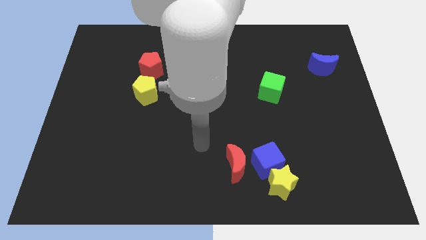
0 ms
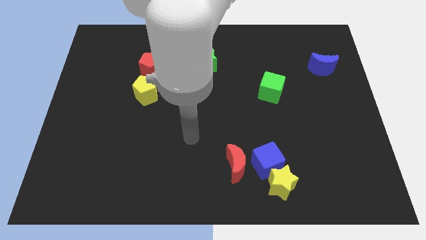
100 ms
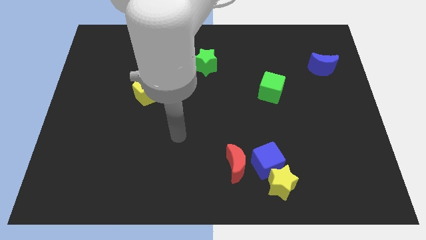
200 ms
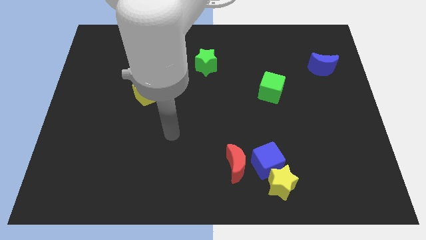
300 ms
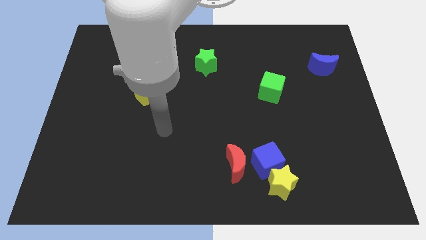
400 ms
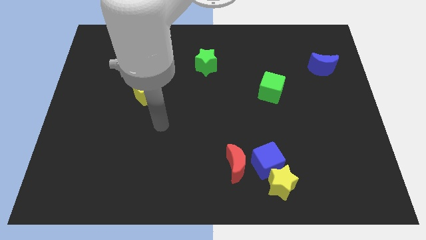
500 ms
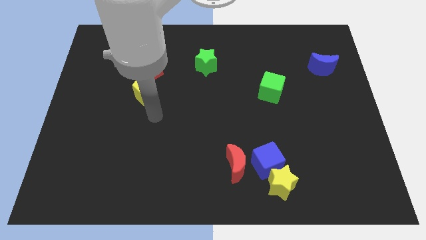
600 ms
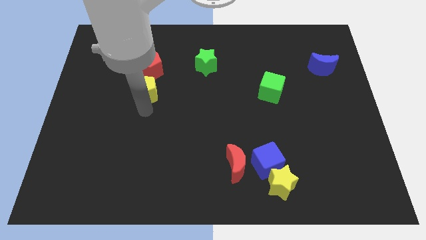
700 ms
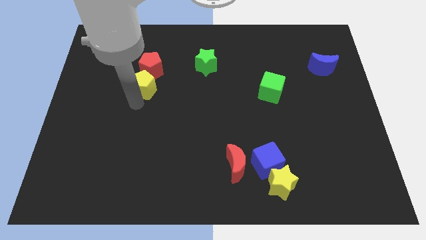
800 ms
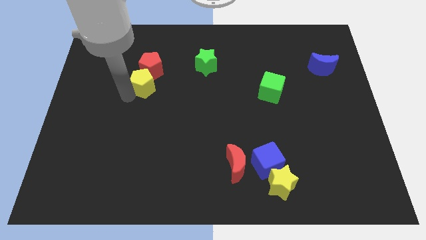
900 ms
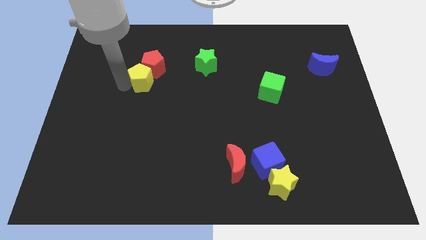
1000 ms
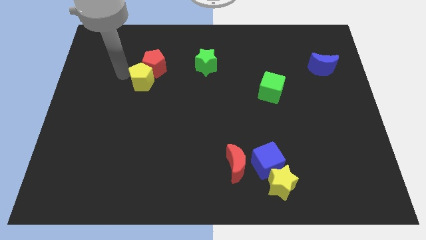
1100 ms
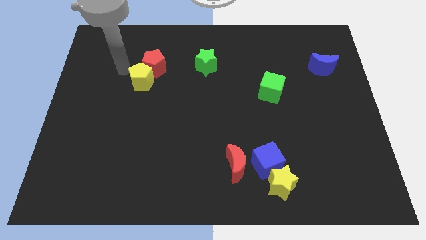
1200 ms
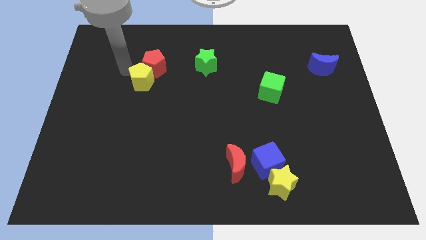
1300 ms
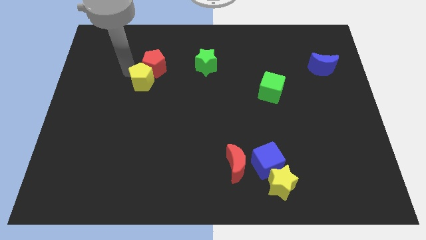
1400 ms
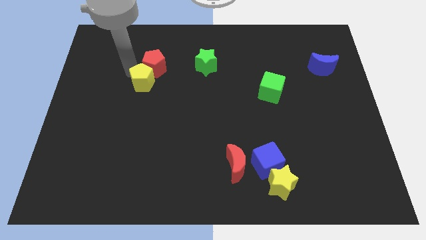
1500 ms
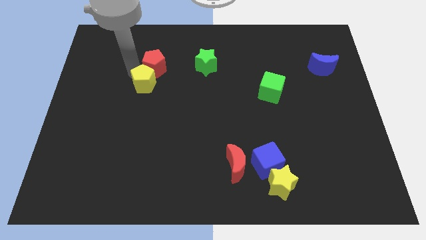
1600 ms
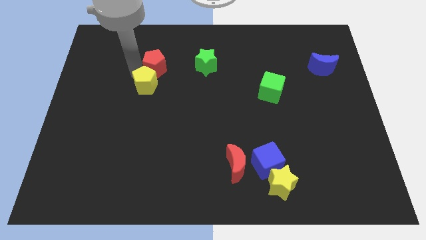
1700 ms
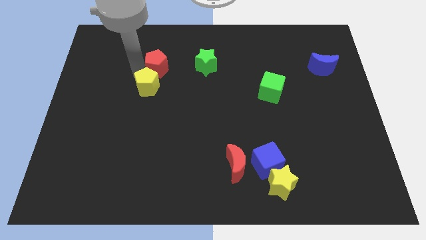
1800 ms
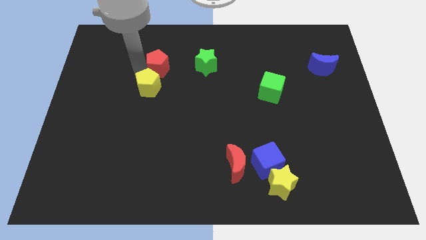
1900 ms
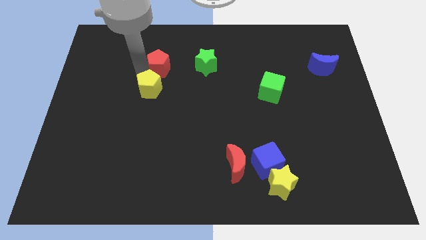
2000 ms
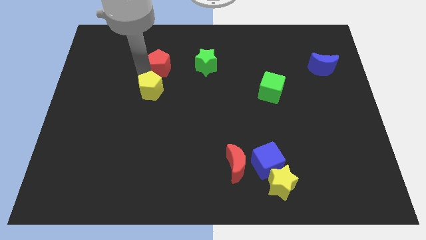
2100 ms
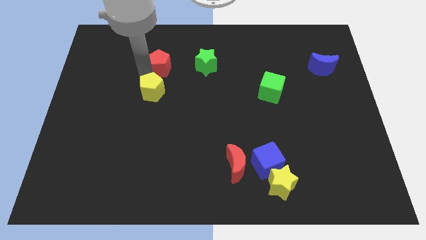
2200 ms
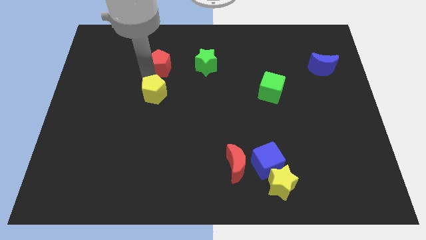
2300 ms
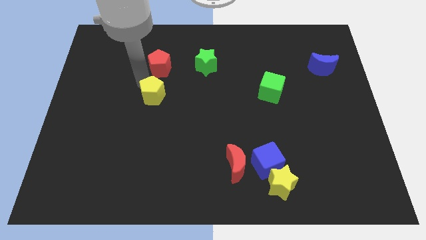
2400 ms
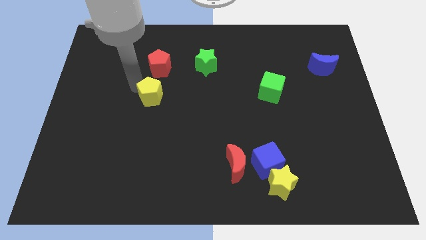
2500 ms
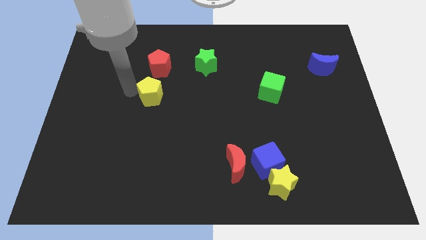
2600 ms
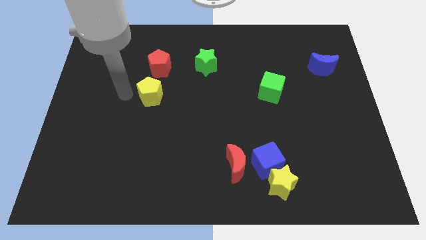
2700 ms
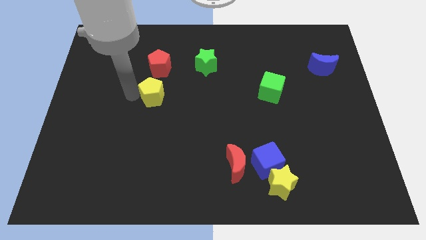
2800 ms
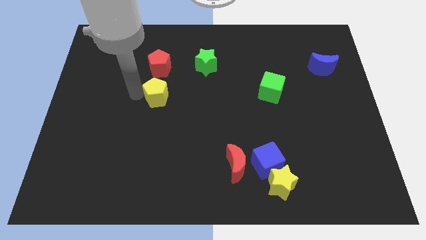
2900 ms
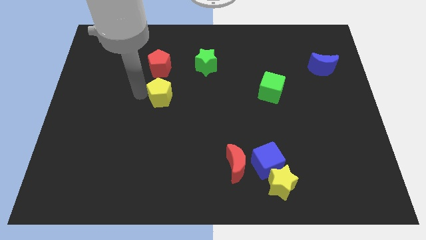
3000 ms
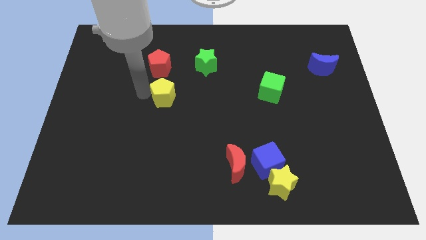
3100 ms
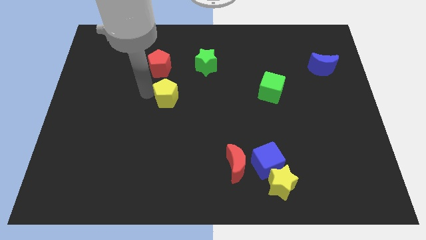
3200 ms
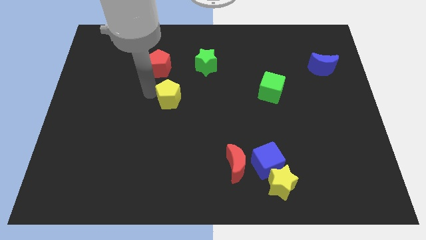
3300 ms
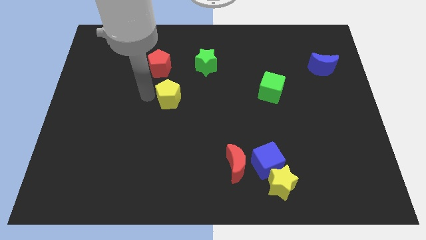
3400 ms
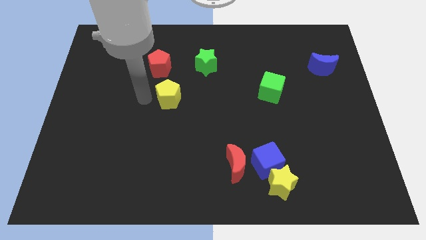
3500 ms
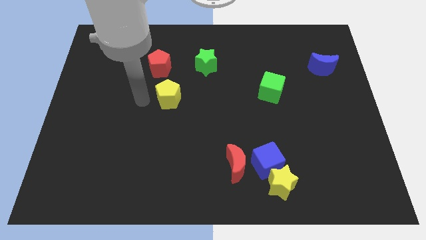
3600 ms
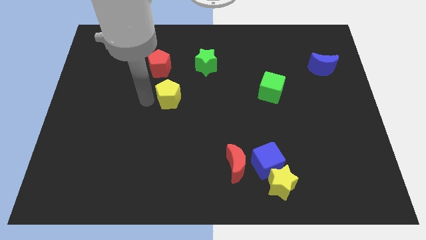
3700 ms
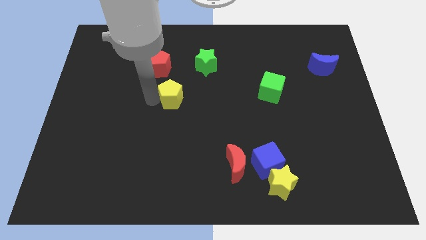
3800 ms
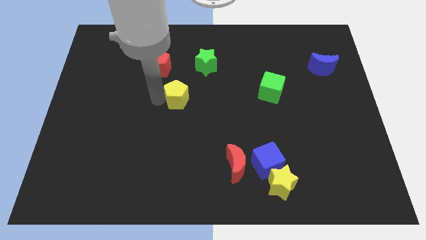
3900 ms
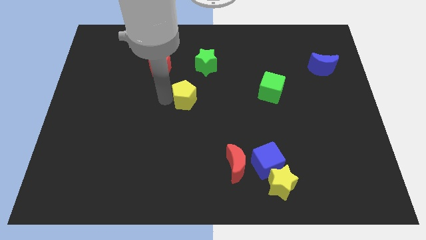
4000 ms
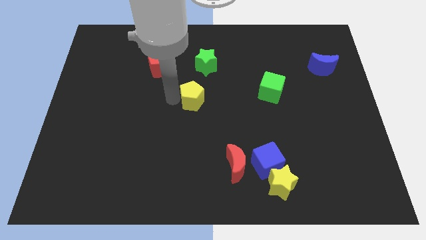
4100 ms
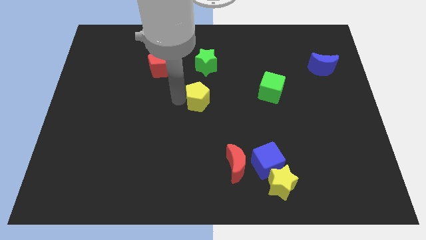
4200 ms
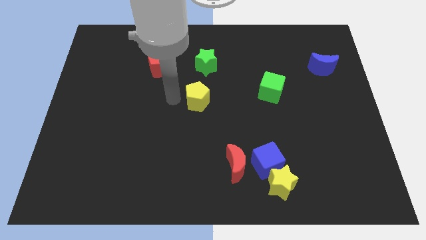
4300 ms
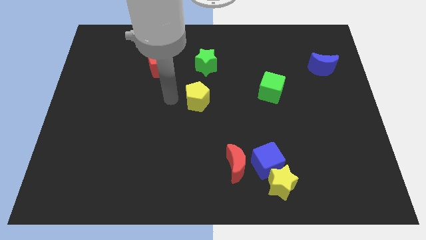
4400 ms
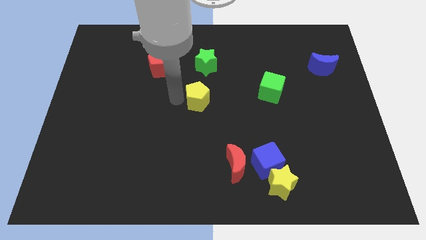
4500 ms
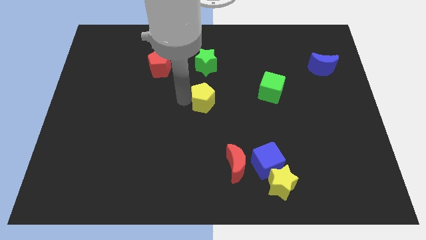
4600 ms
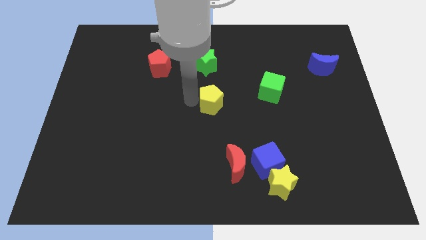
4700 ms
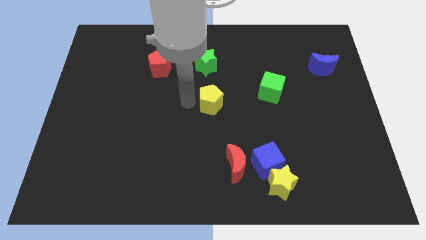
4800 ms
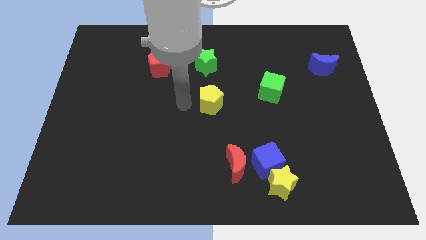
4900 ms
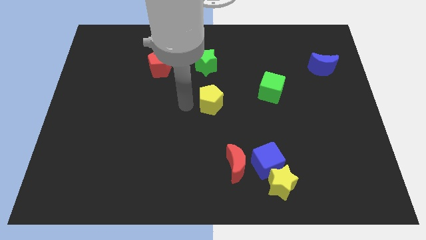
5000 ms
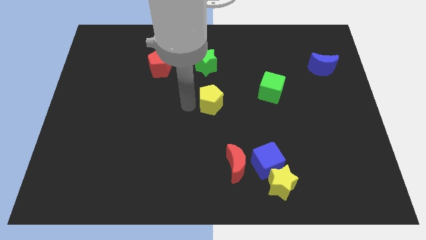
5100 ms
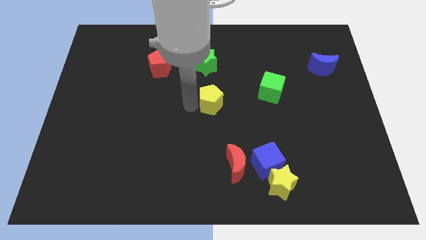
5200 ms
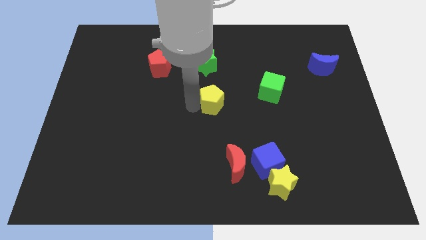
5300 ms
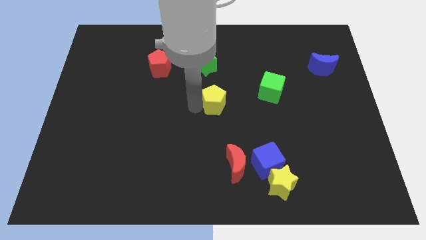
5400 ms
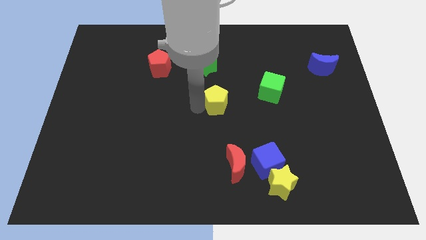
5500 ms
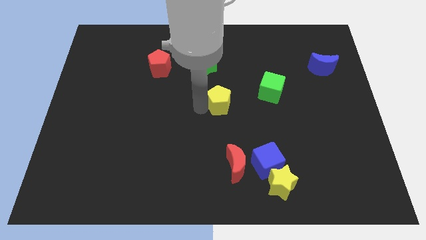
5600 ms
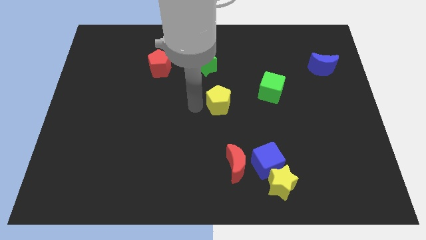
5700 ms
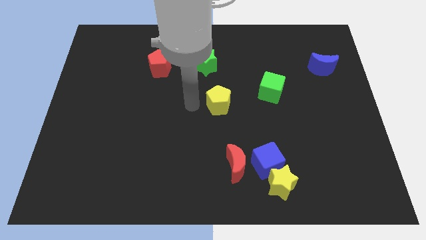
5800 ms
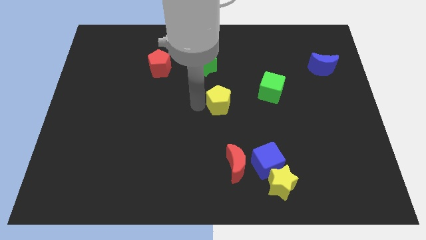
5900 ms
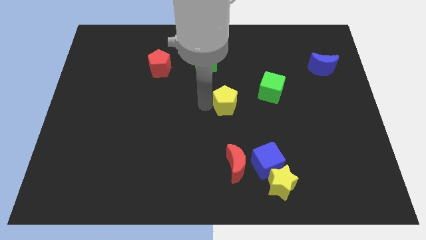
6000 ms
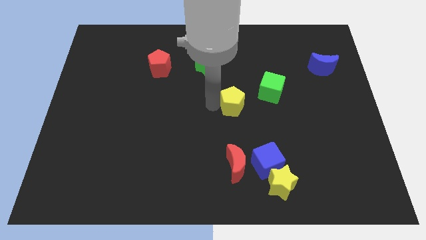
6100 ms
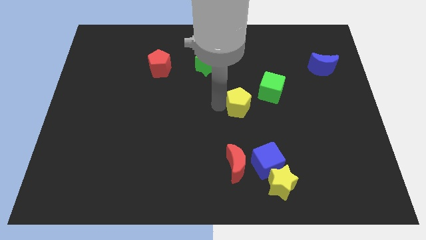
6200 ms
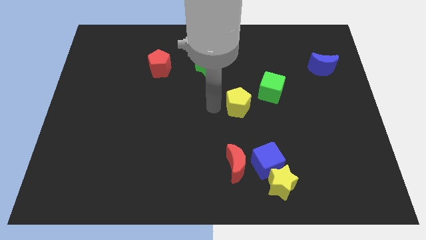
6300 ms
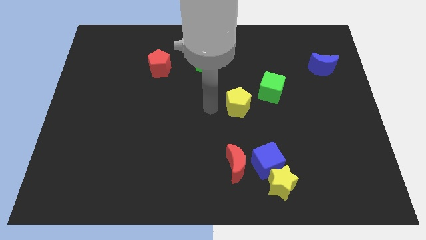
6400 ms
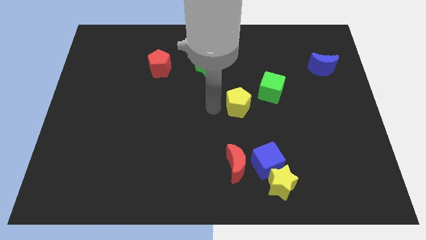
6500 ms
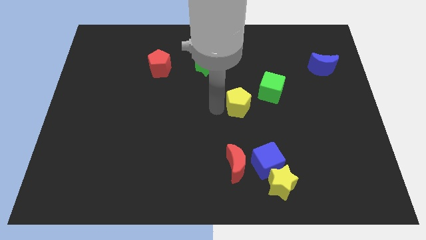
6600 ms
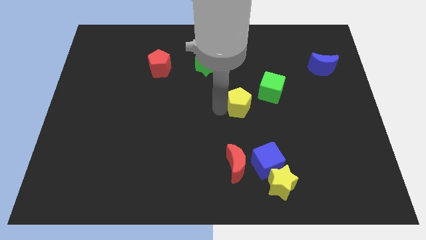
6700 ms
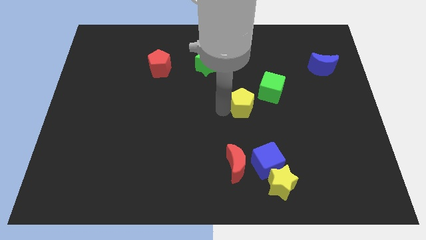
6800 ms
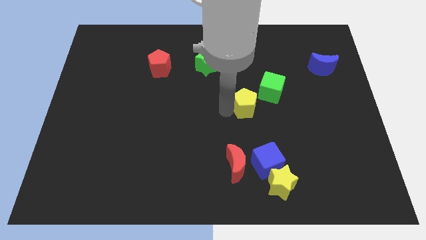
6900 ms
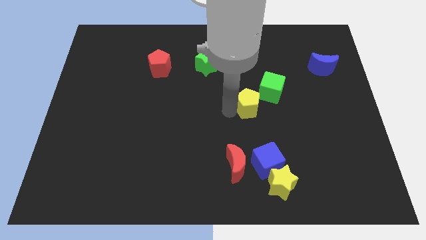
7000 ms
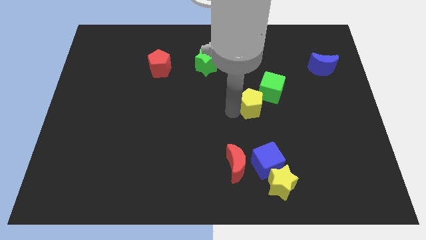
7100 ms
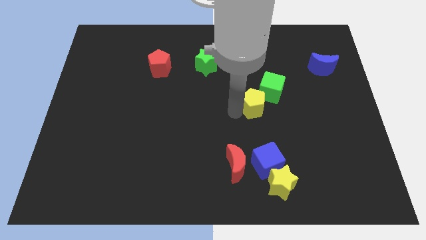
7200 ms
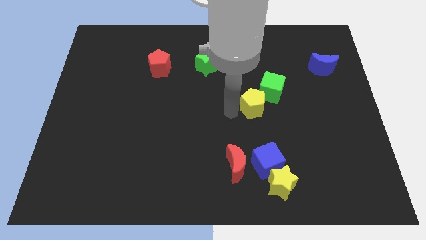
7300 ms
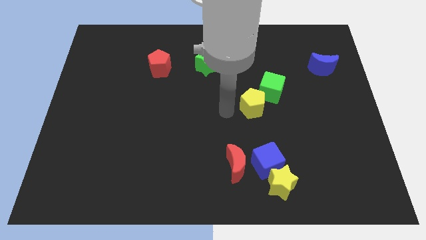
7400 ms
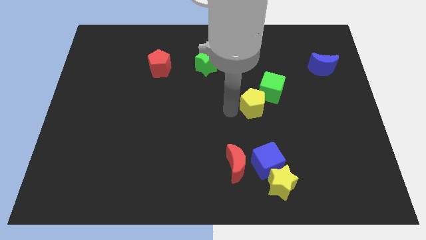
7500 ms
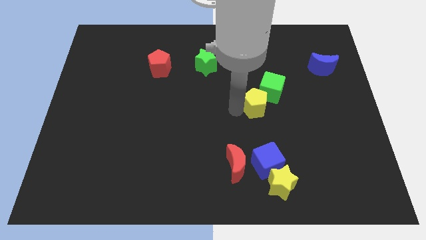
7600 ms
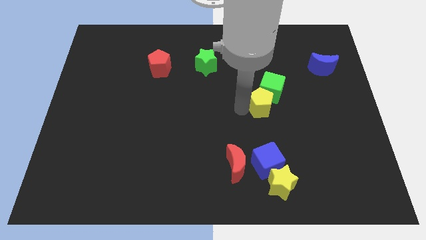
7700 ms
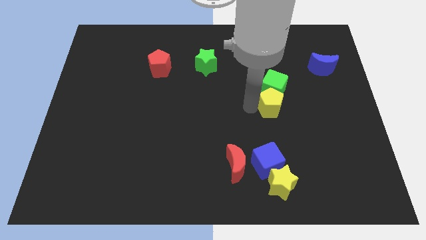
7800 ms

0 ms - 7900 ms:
put the yellow pentagon diagonally down and to the right of the green cube

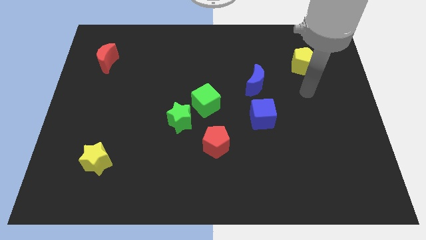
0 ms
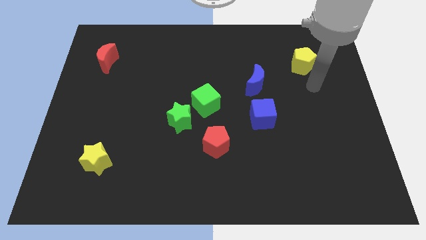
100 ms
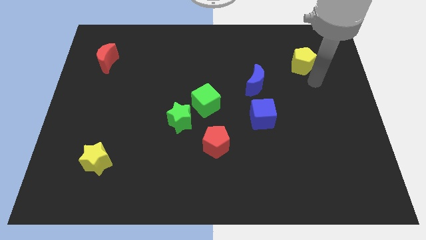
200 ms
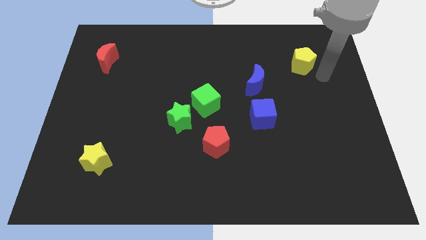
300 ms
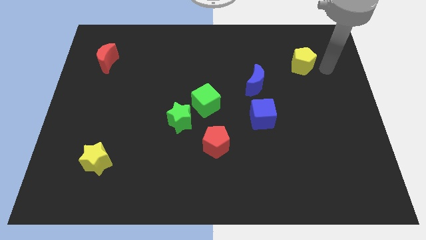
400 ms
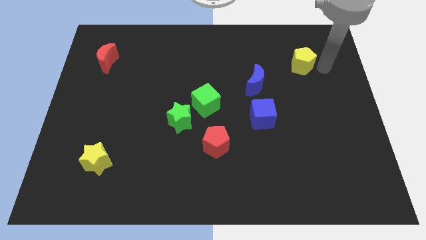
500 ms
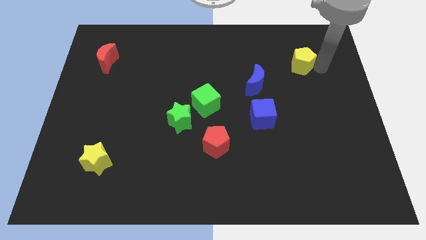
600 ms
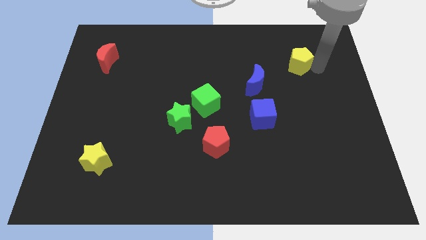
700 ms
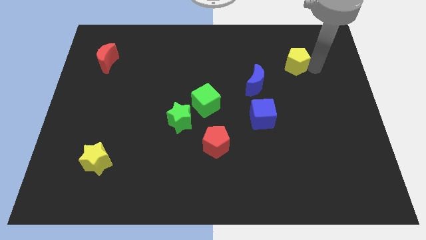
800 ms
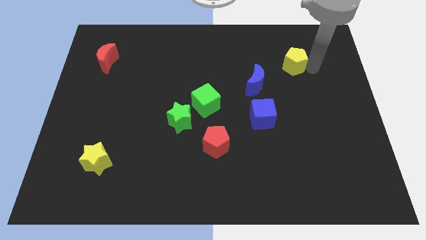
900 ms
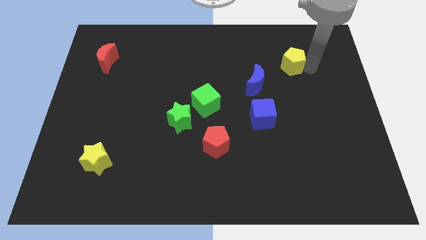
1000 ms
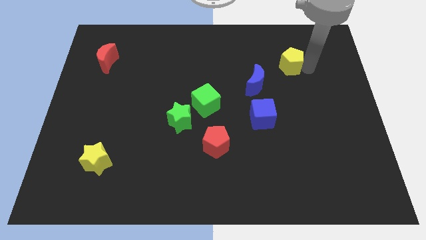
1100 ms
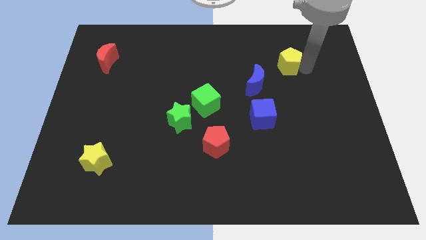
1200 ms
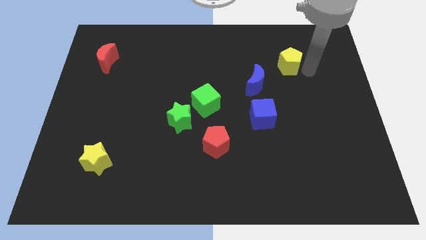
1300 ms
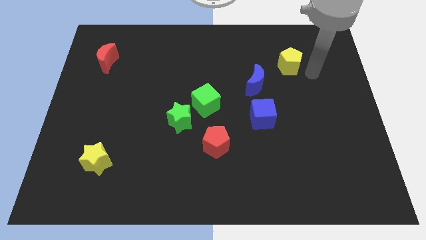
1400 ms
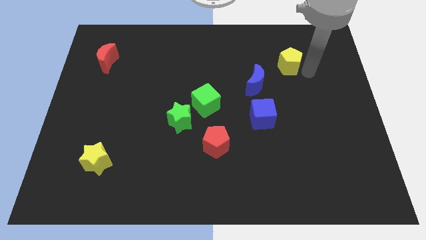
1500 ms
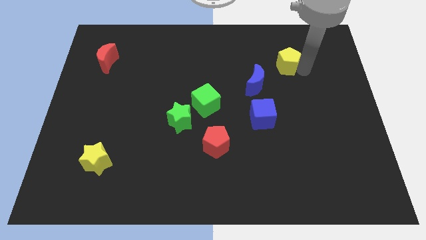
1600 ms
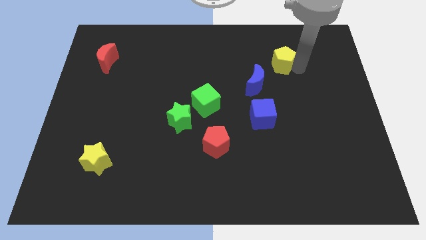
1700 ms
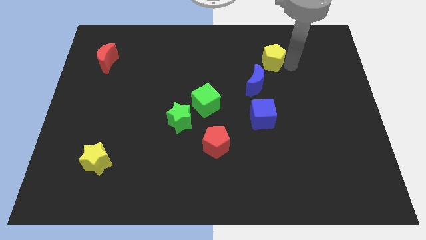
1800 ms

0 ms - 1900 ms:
move the yellow pentagon above the blue moon
